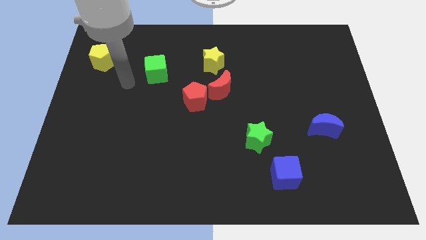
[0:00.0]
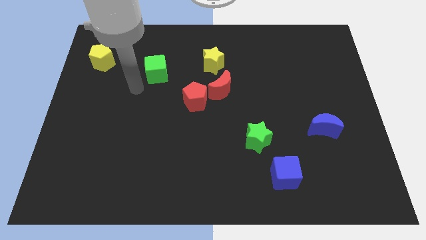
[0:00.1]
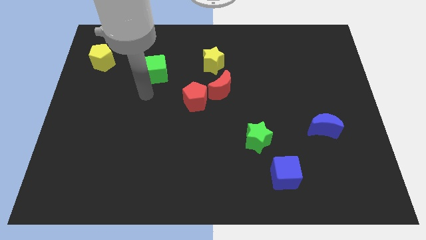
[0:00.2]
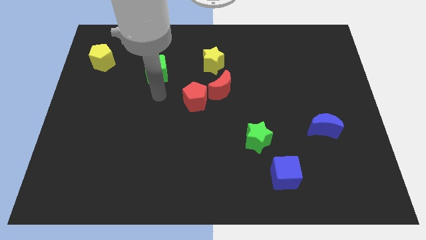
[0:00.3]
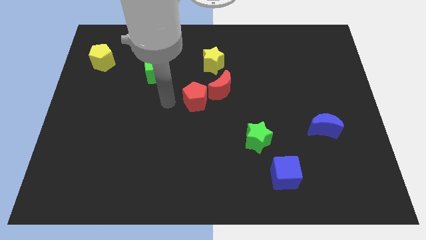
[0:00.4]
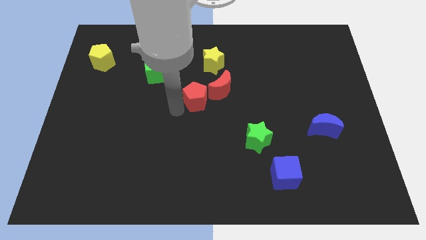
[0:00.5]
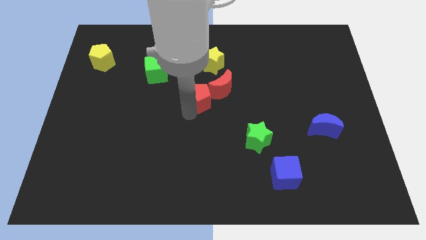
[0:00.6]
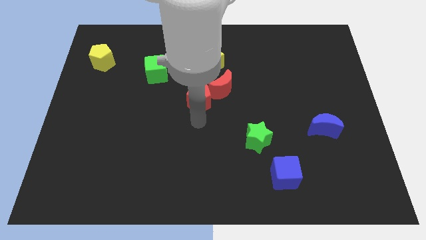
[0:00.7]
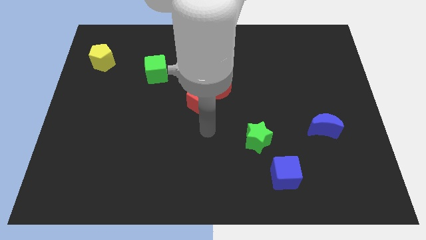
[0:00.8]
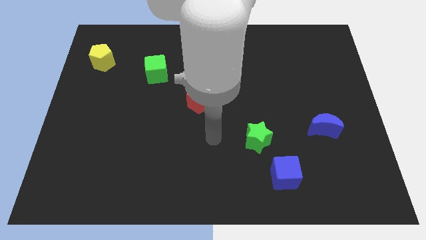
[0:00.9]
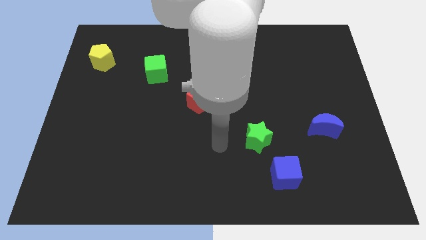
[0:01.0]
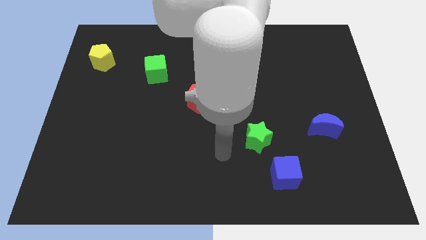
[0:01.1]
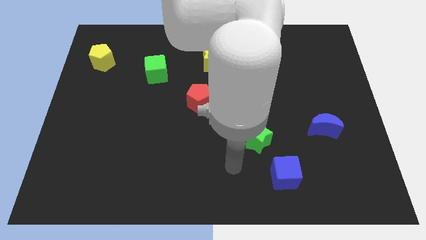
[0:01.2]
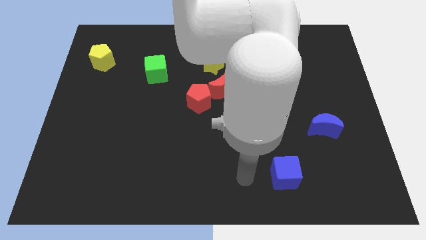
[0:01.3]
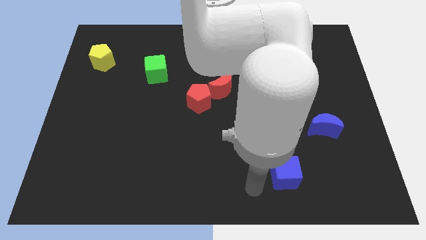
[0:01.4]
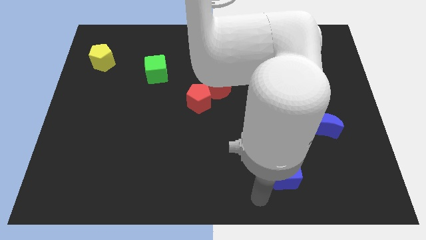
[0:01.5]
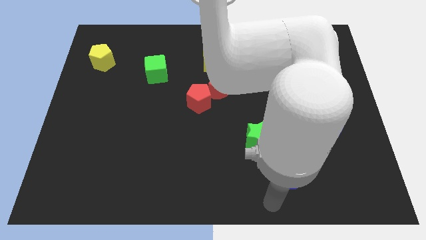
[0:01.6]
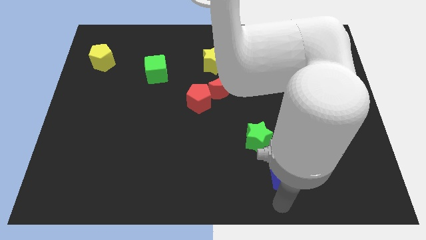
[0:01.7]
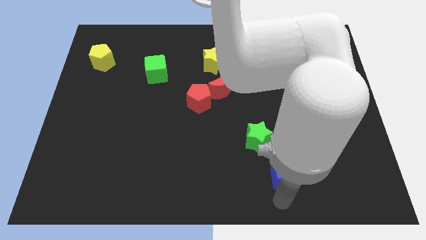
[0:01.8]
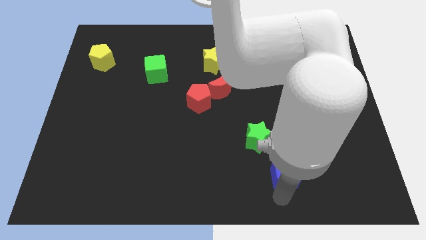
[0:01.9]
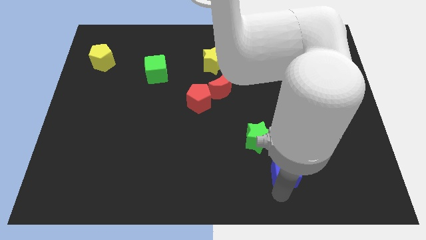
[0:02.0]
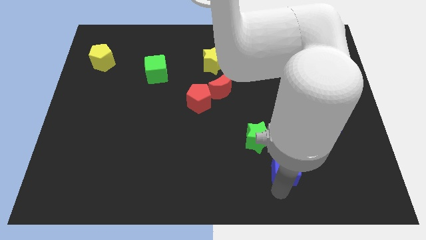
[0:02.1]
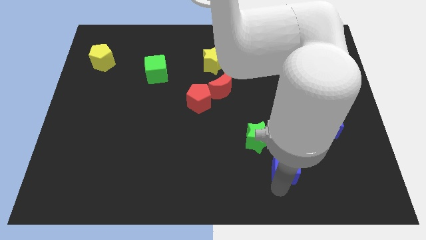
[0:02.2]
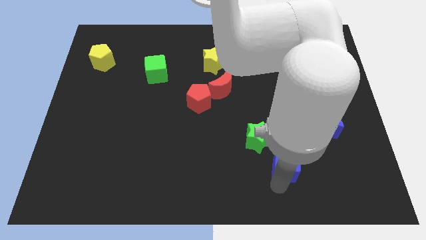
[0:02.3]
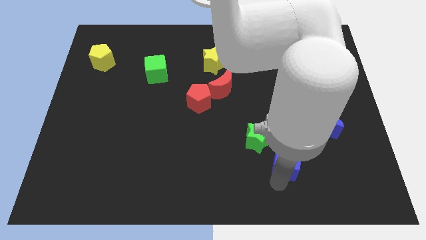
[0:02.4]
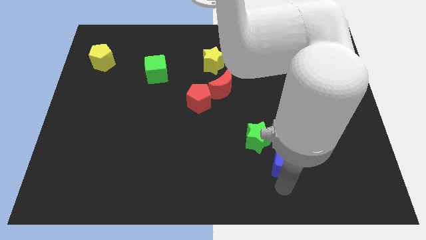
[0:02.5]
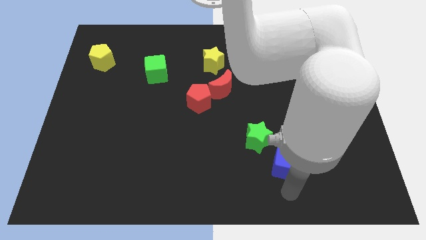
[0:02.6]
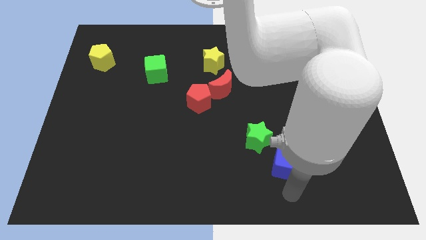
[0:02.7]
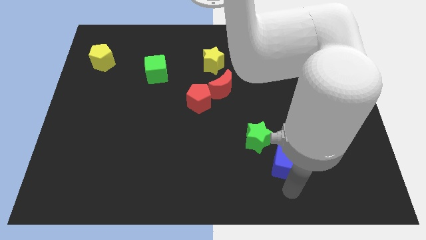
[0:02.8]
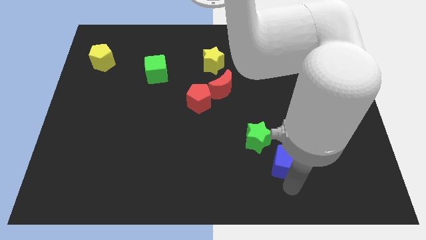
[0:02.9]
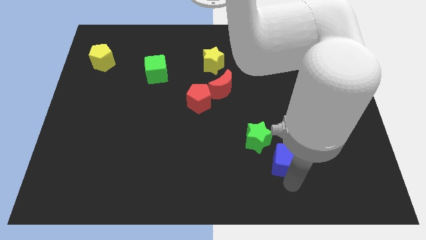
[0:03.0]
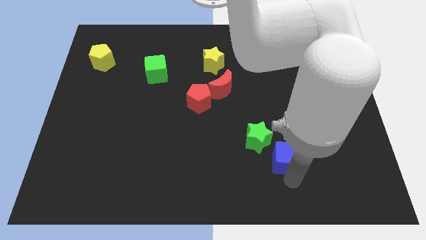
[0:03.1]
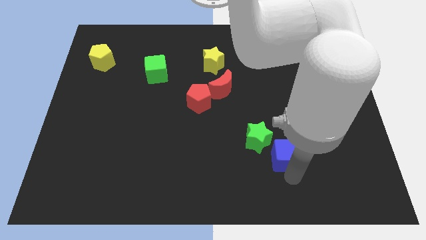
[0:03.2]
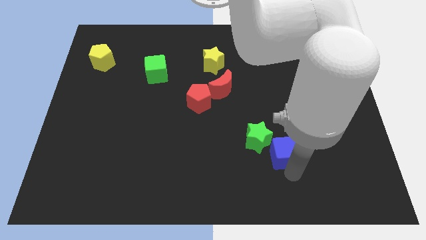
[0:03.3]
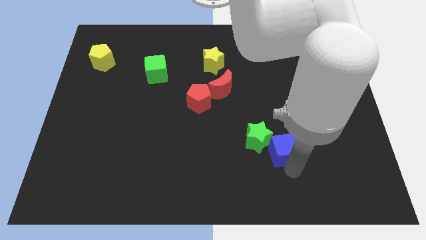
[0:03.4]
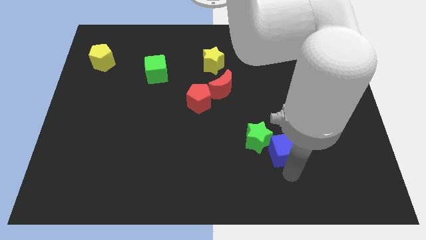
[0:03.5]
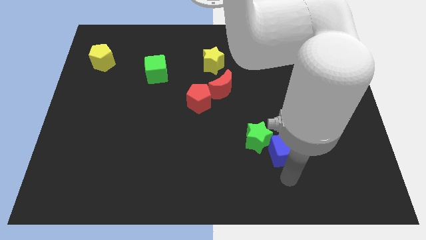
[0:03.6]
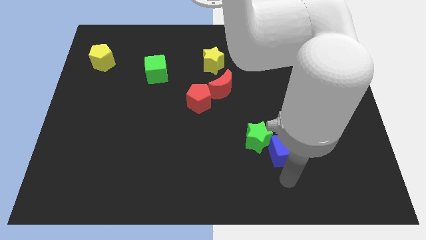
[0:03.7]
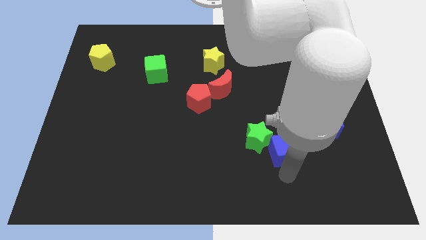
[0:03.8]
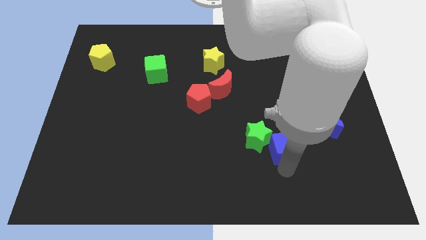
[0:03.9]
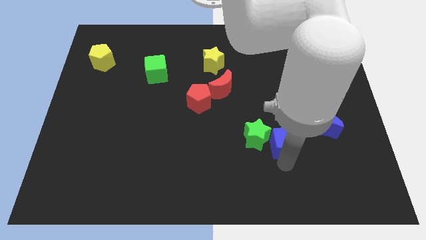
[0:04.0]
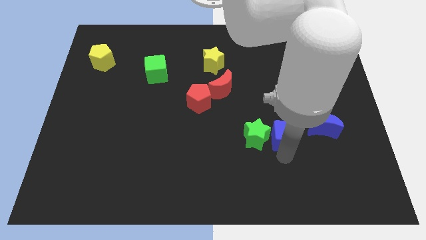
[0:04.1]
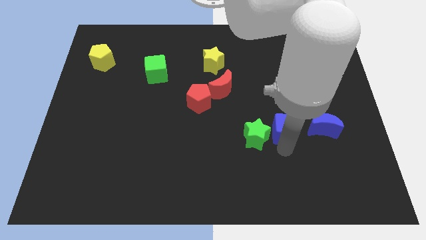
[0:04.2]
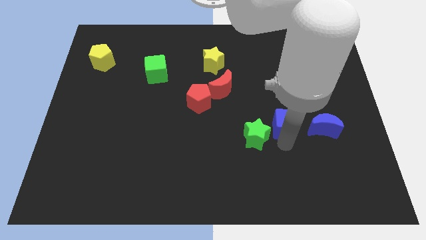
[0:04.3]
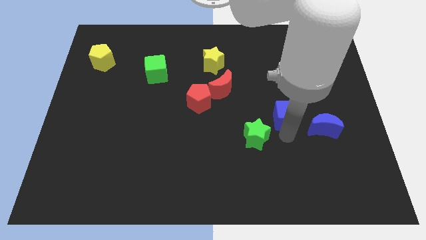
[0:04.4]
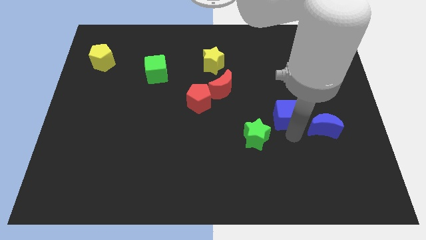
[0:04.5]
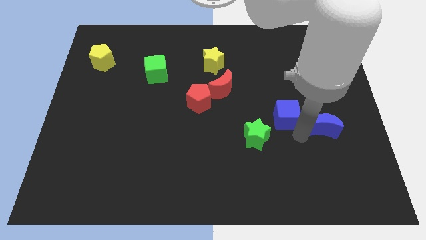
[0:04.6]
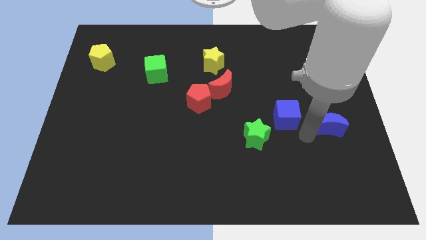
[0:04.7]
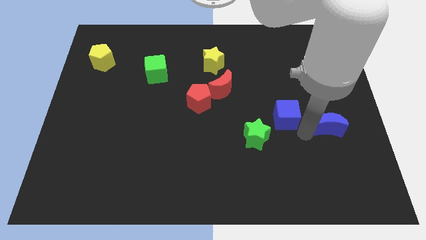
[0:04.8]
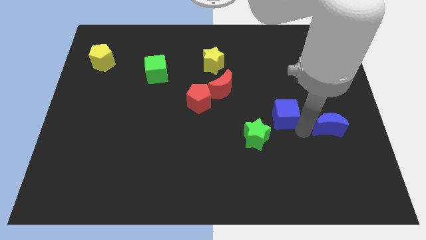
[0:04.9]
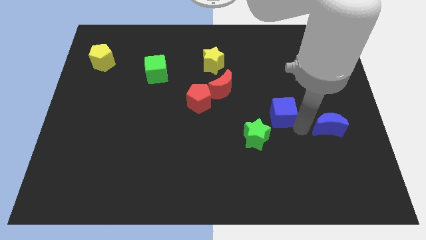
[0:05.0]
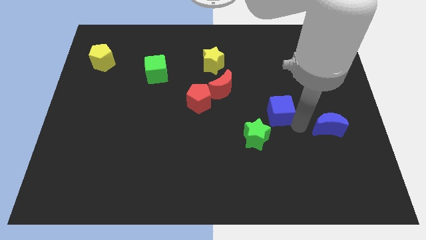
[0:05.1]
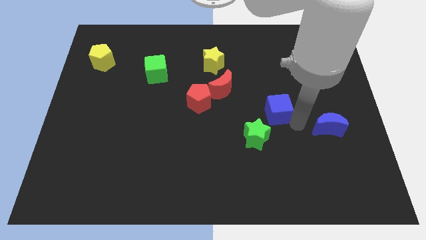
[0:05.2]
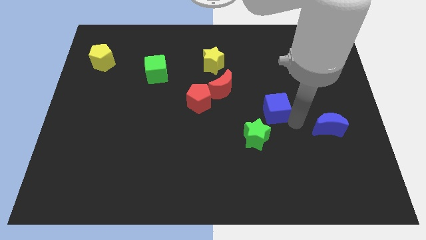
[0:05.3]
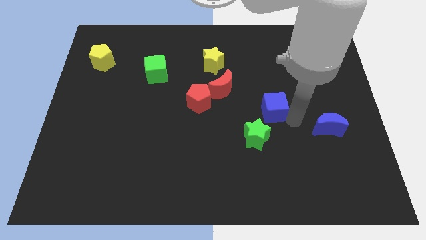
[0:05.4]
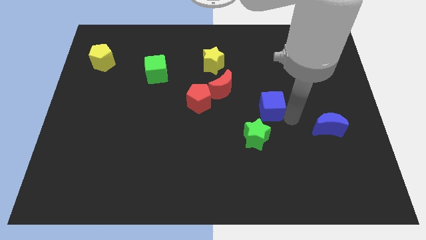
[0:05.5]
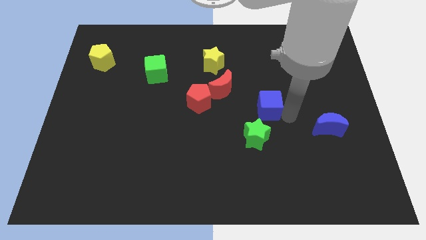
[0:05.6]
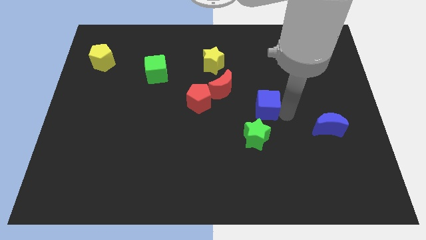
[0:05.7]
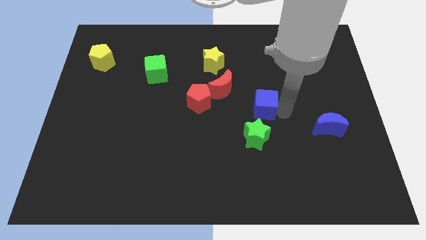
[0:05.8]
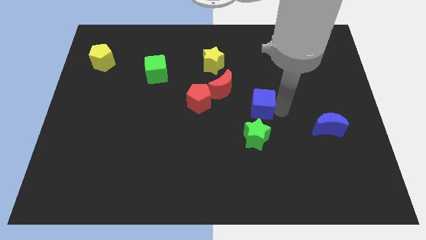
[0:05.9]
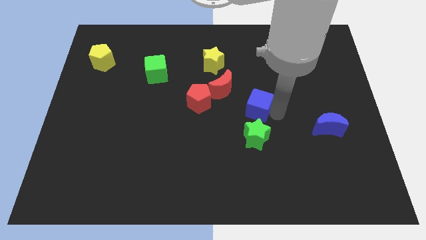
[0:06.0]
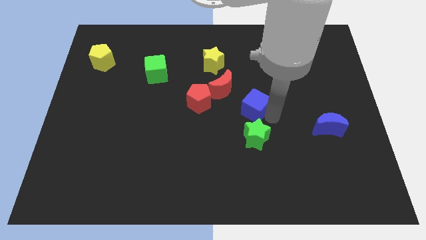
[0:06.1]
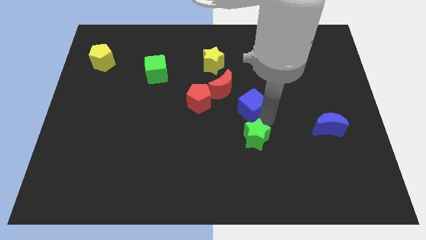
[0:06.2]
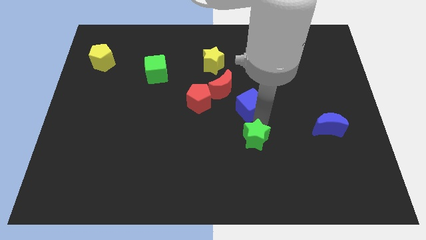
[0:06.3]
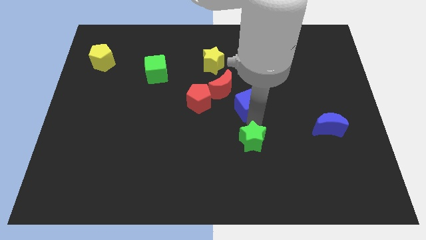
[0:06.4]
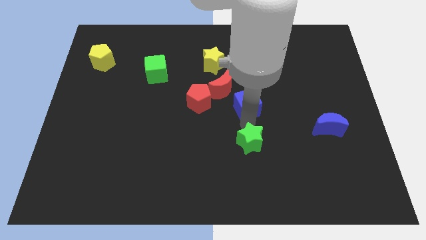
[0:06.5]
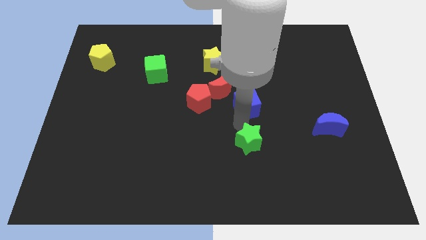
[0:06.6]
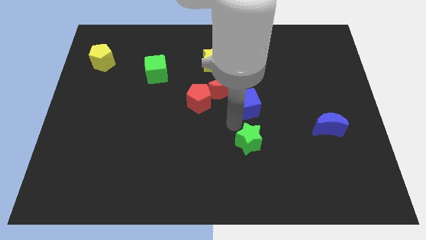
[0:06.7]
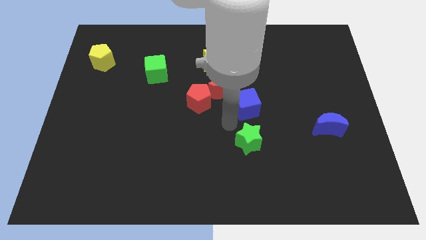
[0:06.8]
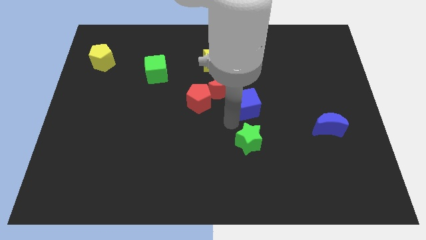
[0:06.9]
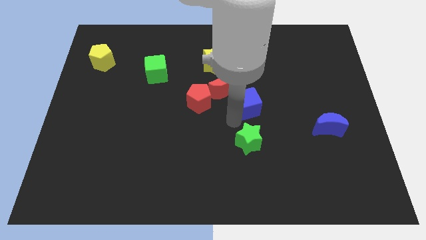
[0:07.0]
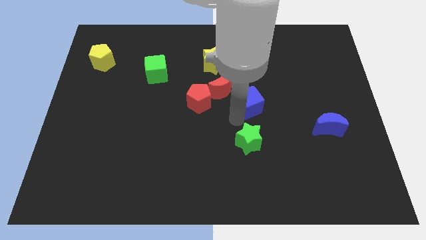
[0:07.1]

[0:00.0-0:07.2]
put the blue cube right of the red moon

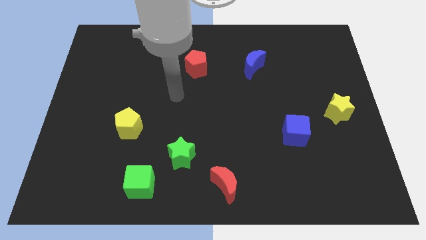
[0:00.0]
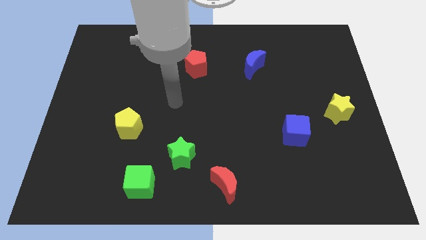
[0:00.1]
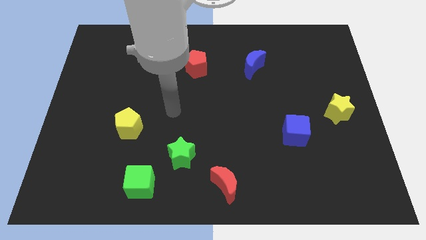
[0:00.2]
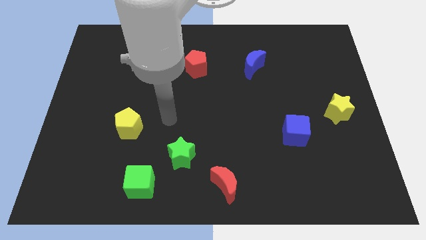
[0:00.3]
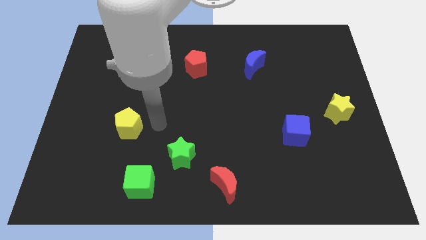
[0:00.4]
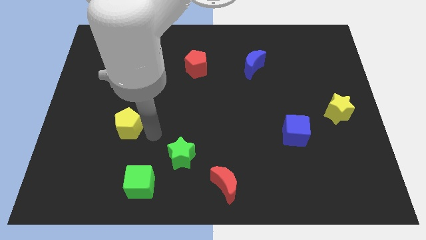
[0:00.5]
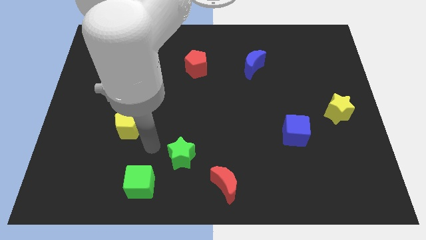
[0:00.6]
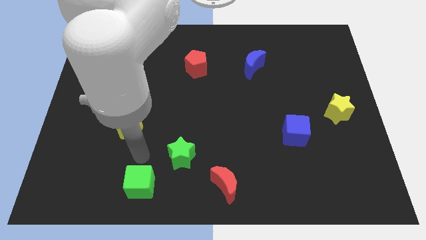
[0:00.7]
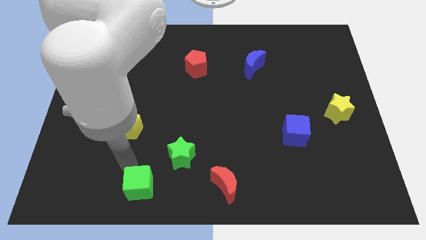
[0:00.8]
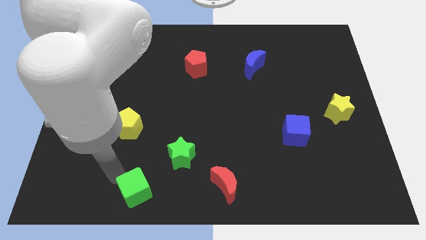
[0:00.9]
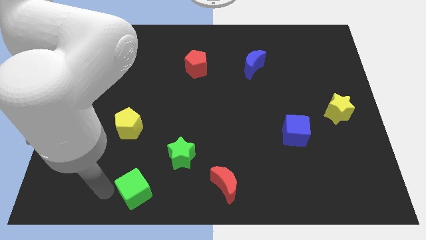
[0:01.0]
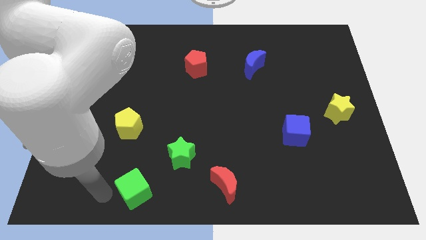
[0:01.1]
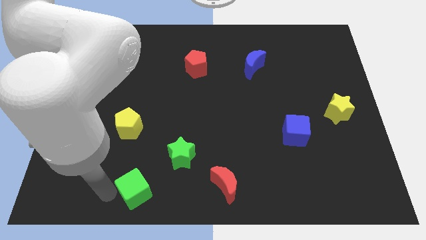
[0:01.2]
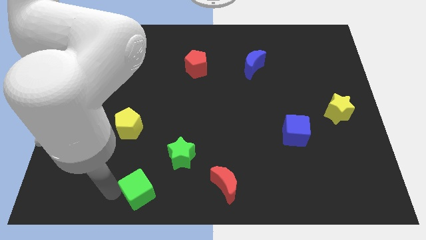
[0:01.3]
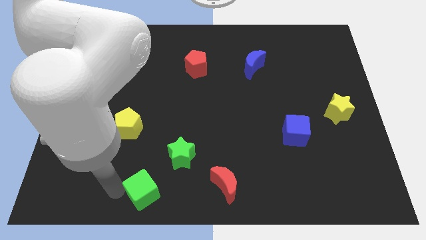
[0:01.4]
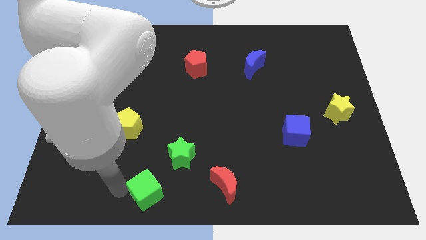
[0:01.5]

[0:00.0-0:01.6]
slide the green cube left of the red moon
